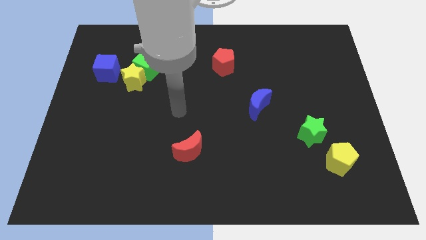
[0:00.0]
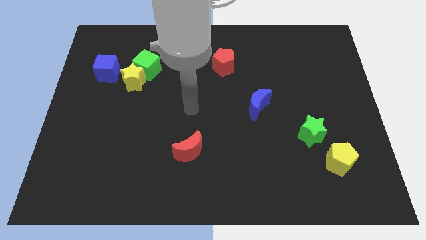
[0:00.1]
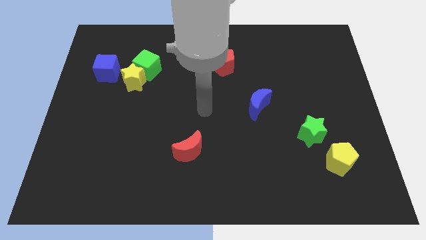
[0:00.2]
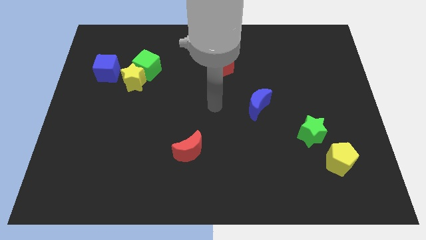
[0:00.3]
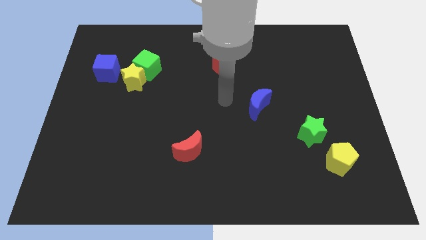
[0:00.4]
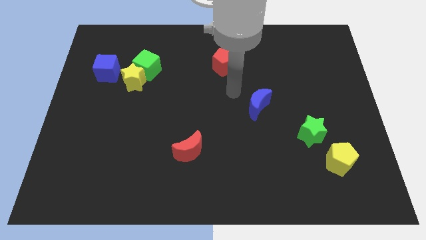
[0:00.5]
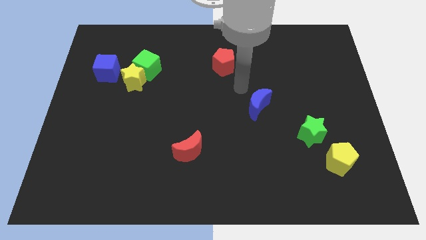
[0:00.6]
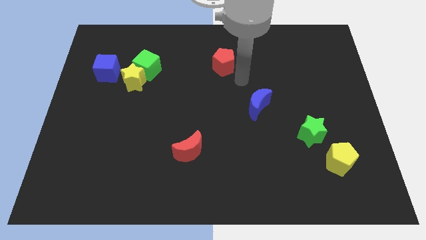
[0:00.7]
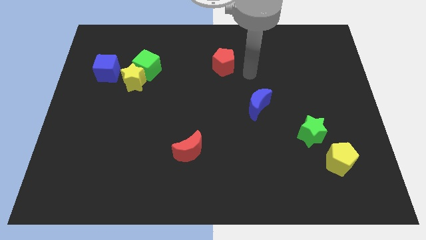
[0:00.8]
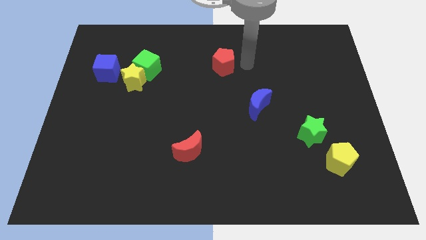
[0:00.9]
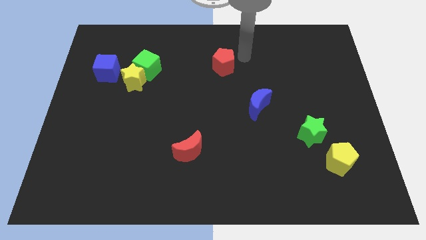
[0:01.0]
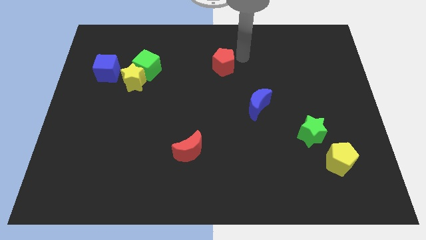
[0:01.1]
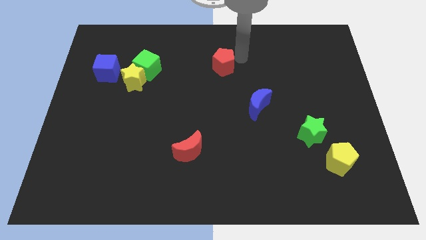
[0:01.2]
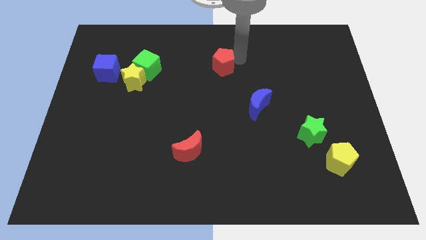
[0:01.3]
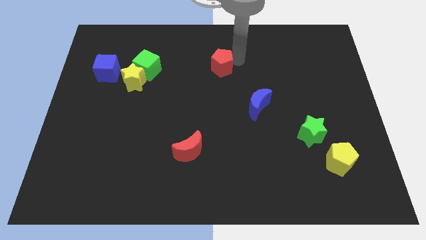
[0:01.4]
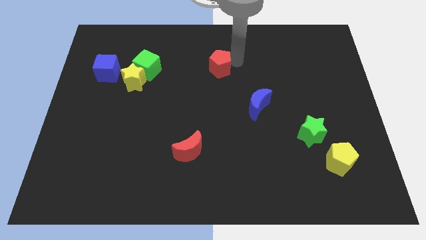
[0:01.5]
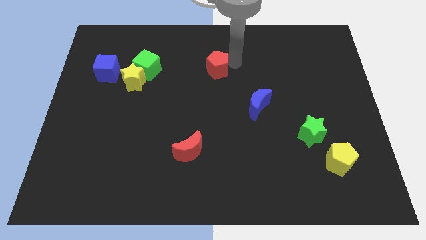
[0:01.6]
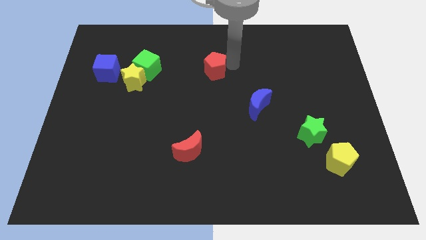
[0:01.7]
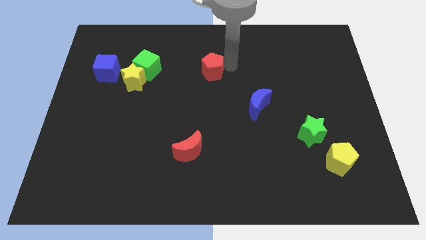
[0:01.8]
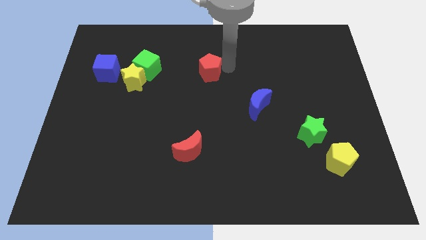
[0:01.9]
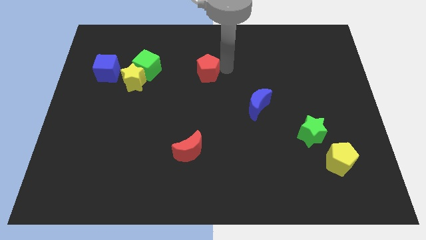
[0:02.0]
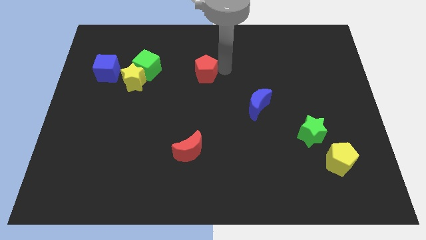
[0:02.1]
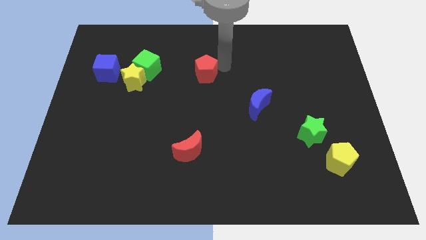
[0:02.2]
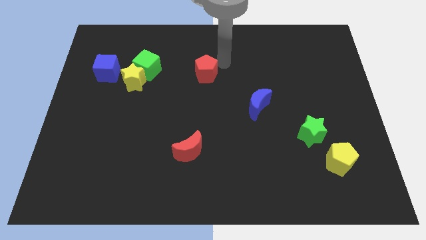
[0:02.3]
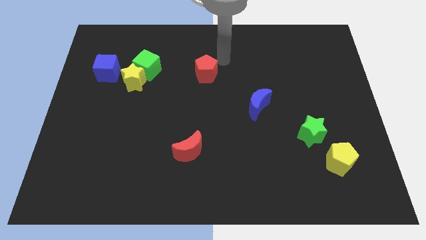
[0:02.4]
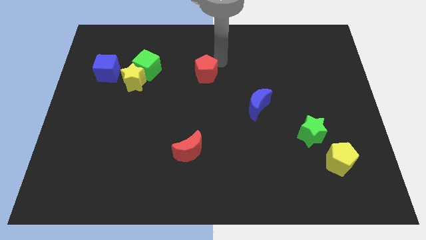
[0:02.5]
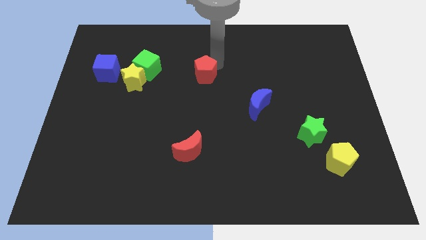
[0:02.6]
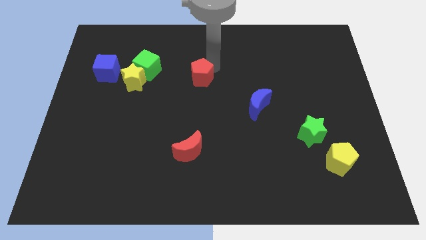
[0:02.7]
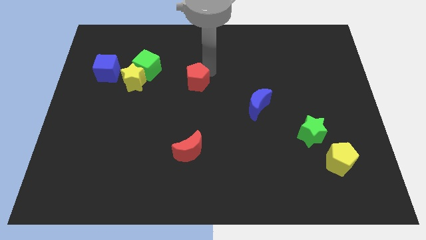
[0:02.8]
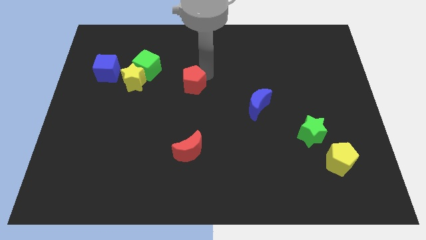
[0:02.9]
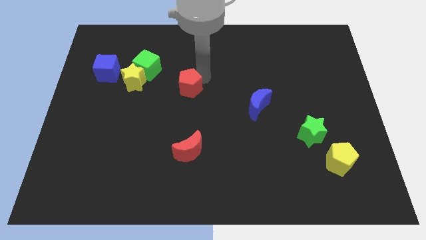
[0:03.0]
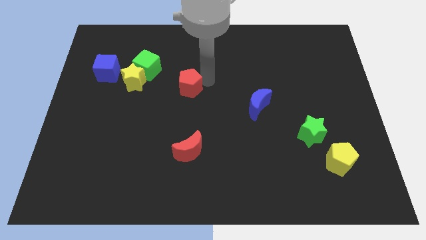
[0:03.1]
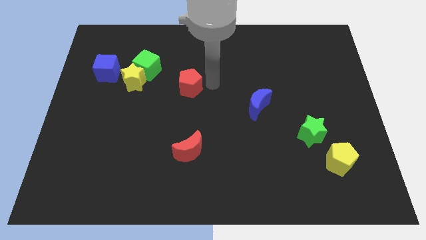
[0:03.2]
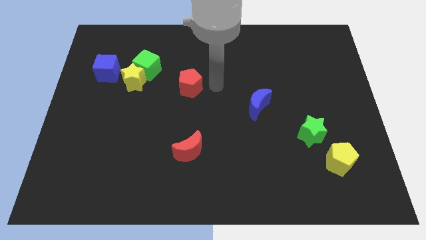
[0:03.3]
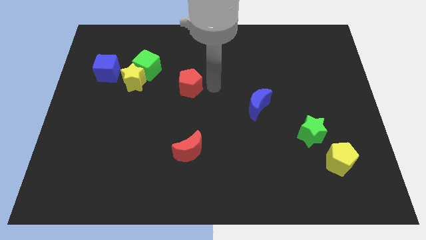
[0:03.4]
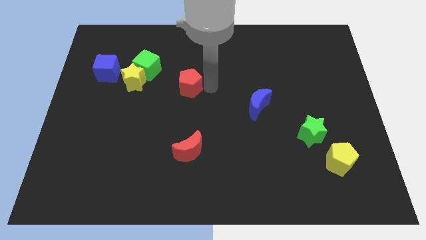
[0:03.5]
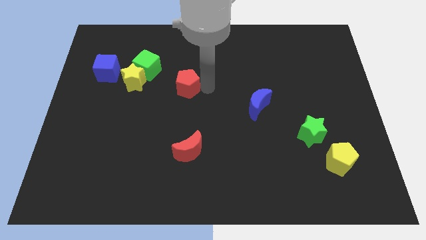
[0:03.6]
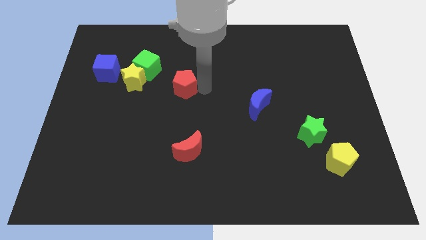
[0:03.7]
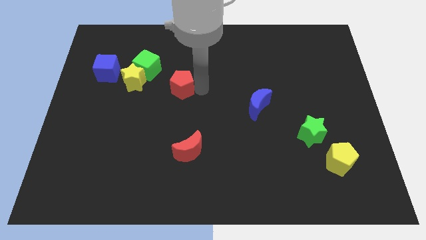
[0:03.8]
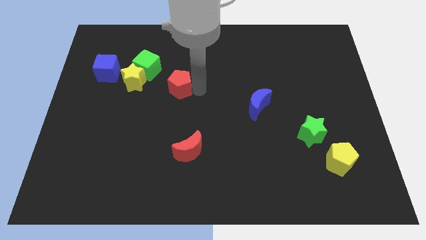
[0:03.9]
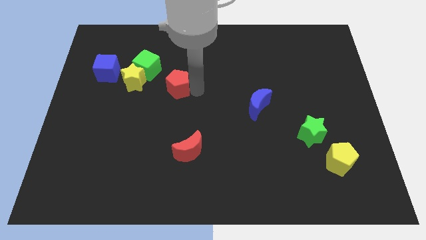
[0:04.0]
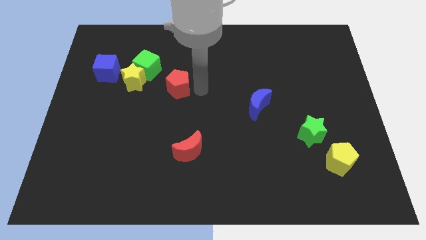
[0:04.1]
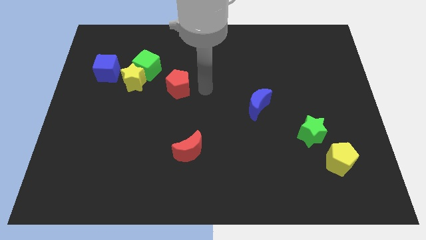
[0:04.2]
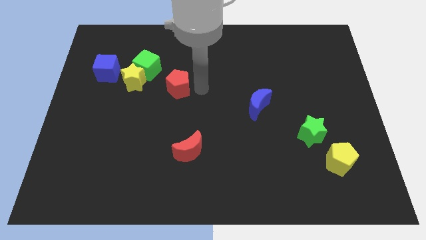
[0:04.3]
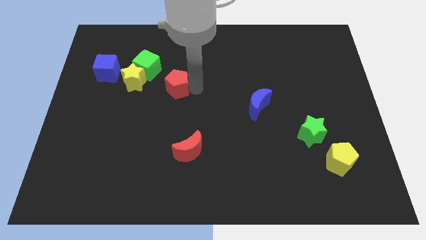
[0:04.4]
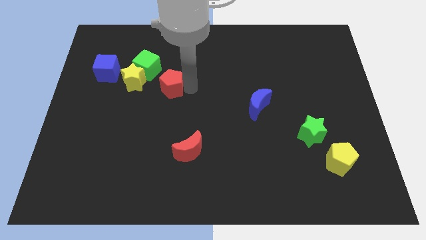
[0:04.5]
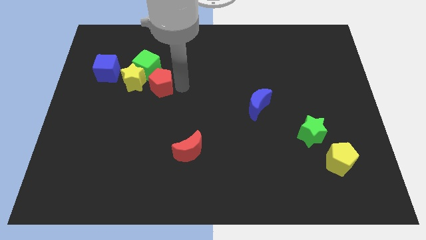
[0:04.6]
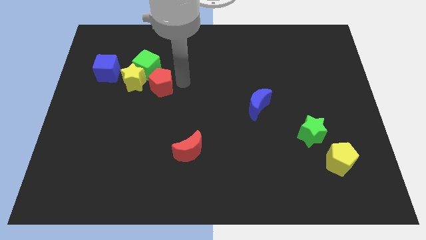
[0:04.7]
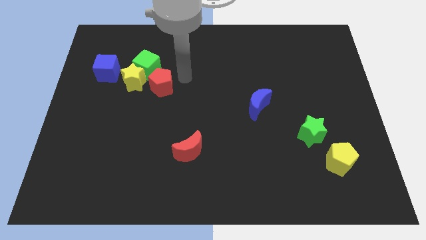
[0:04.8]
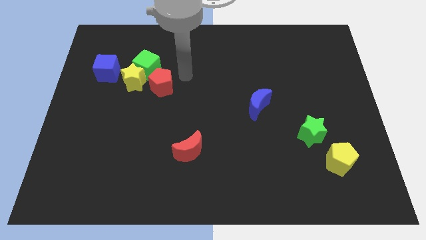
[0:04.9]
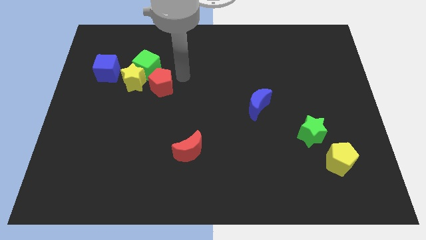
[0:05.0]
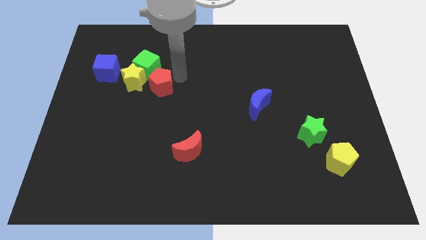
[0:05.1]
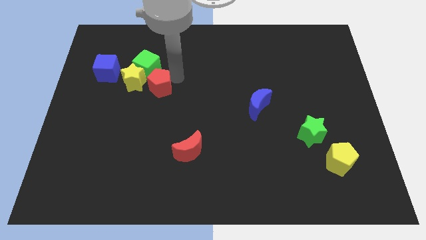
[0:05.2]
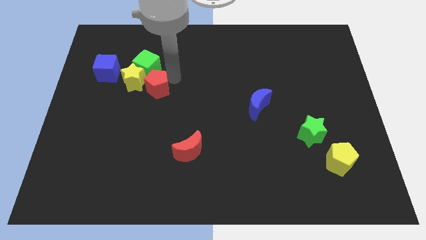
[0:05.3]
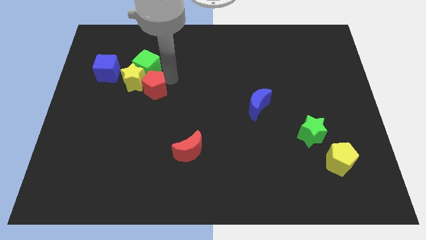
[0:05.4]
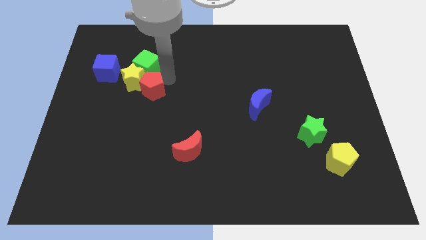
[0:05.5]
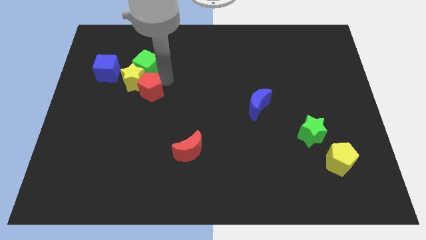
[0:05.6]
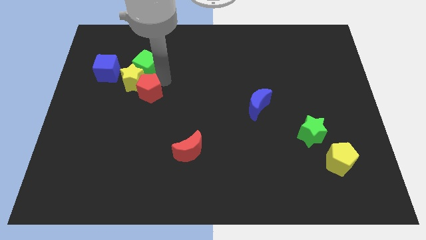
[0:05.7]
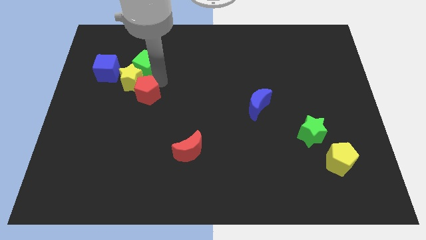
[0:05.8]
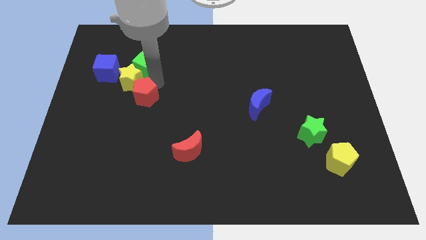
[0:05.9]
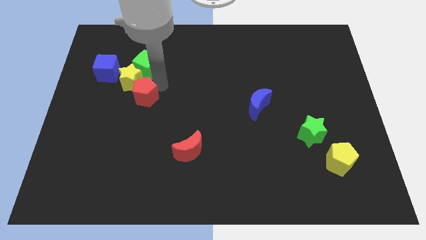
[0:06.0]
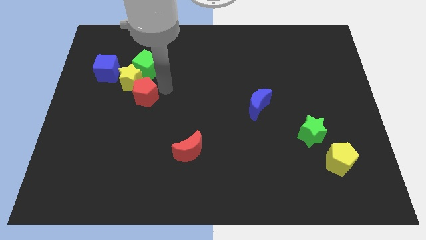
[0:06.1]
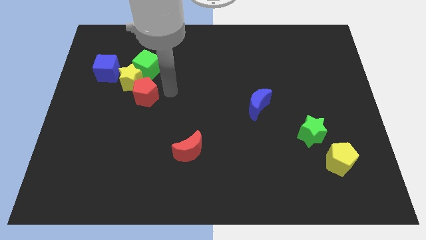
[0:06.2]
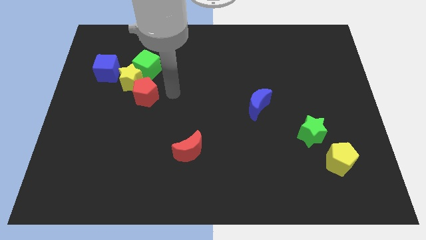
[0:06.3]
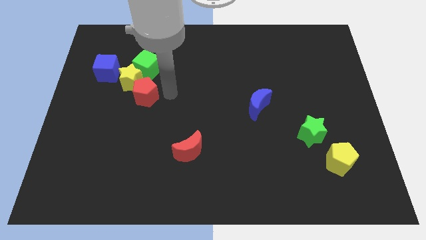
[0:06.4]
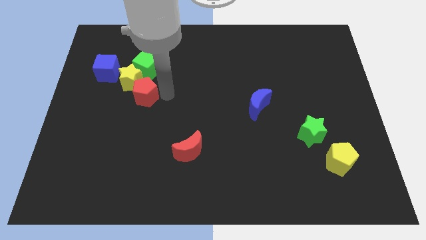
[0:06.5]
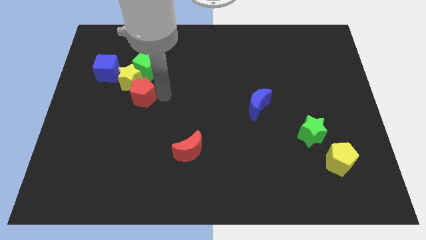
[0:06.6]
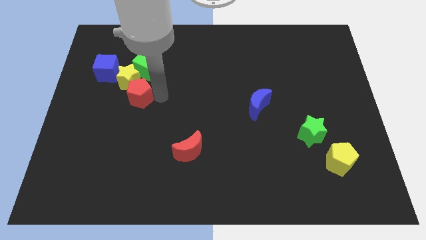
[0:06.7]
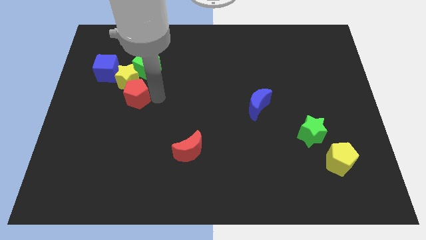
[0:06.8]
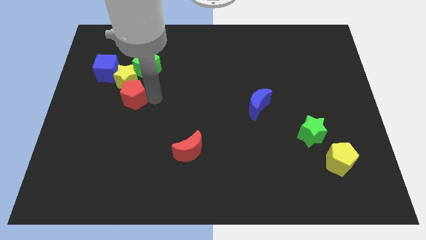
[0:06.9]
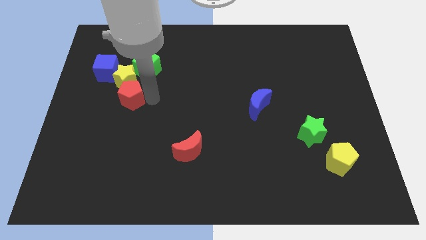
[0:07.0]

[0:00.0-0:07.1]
slide the red pentagon to the bottom left of the green cube
